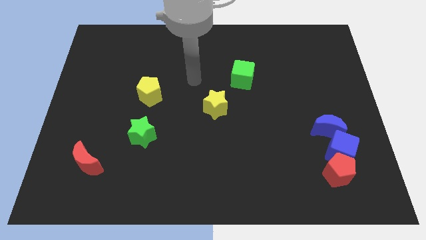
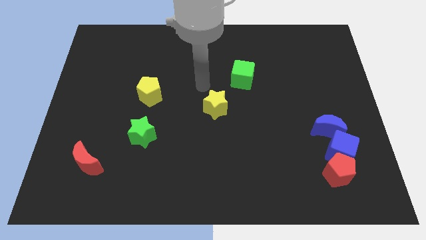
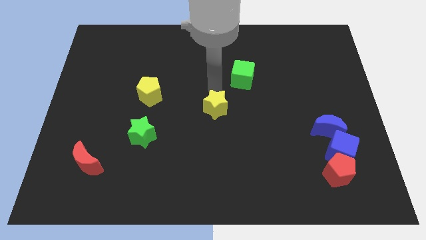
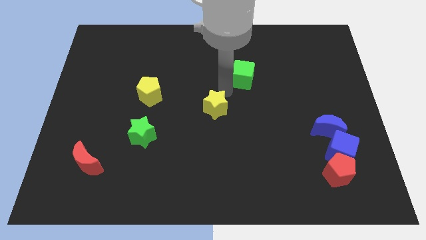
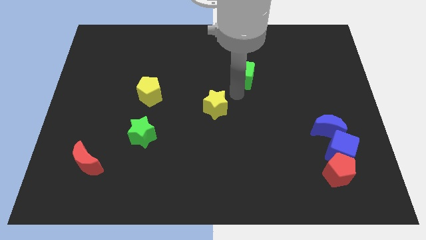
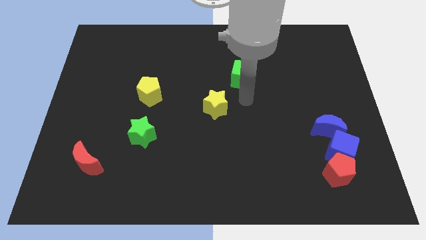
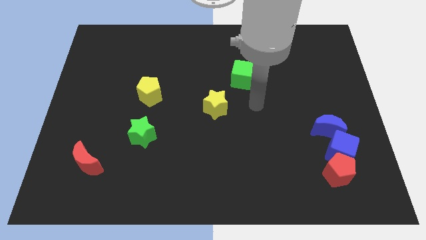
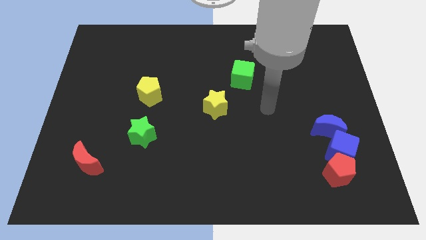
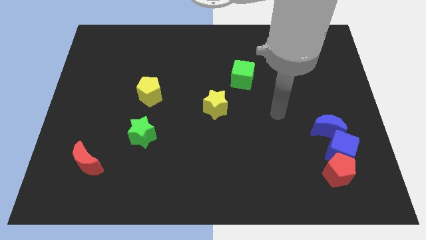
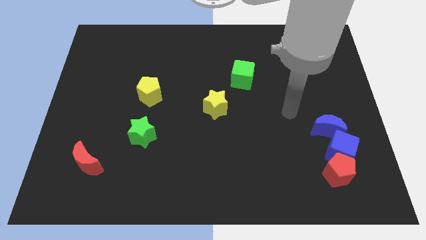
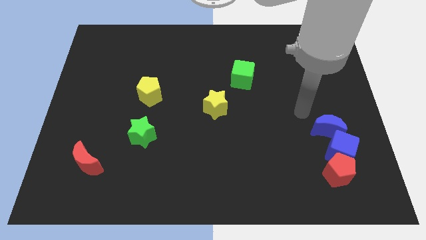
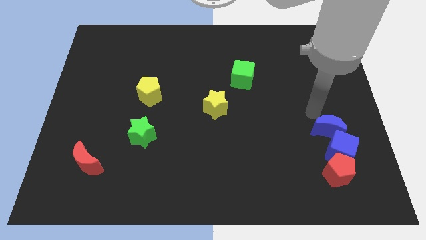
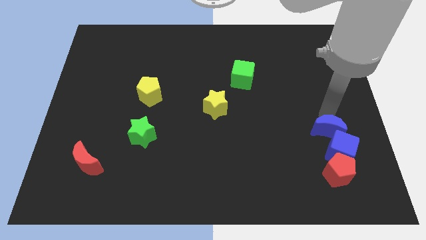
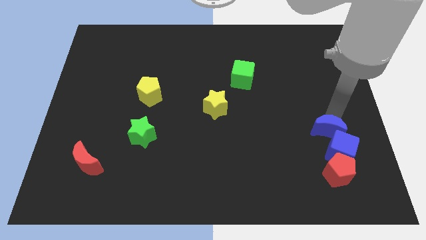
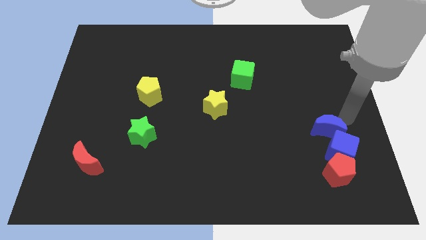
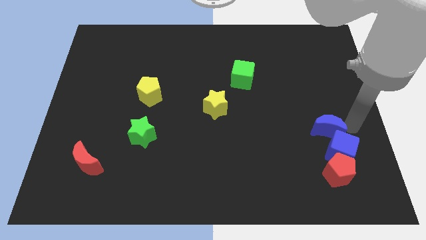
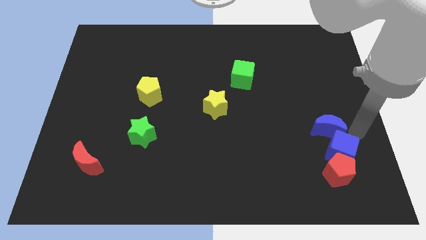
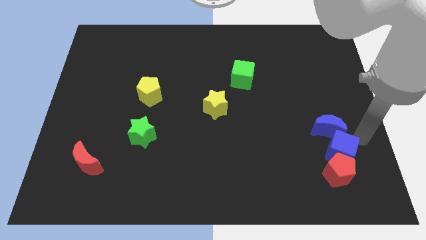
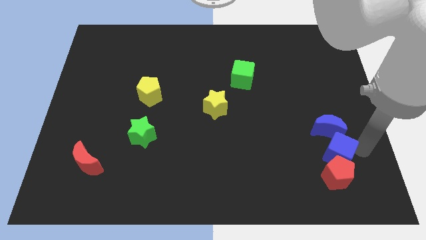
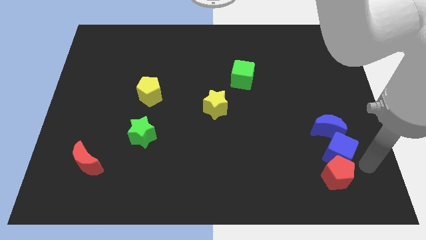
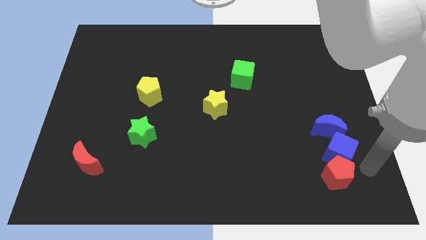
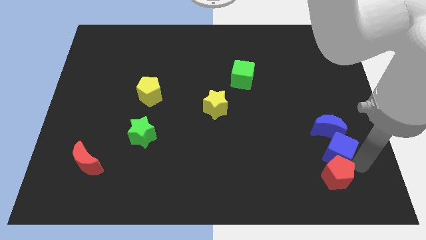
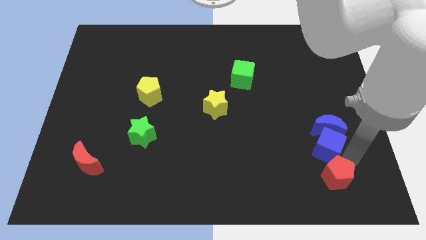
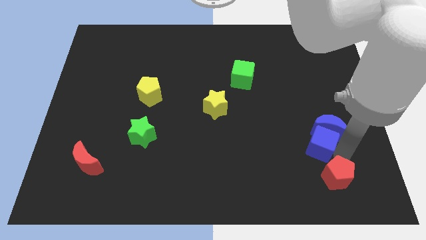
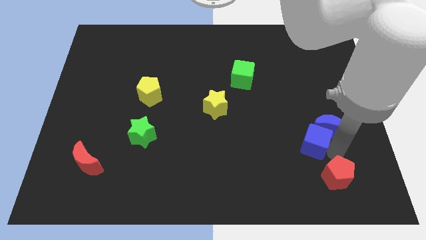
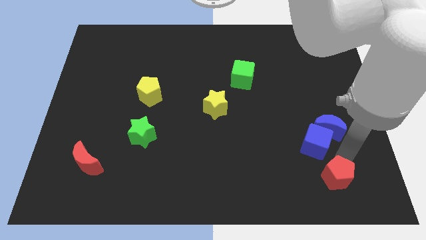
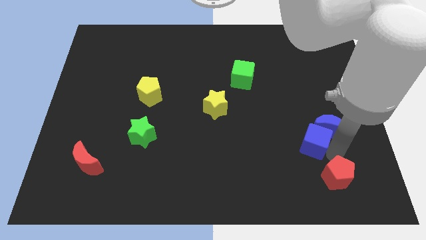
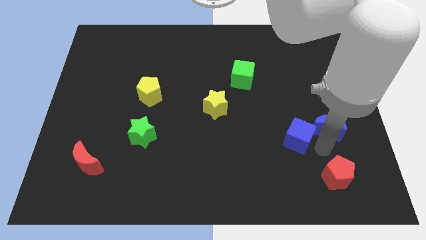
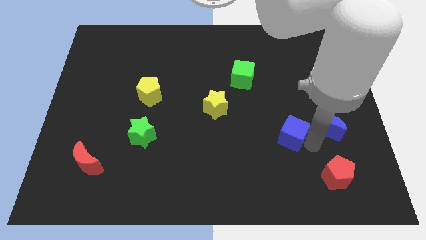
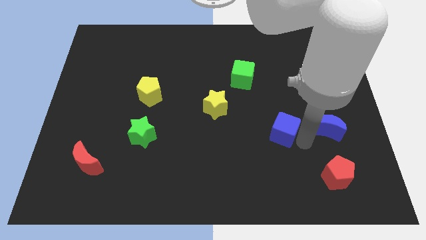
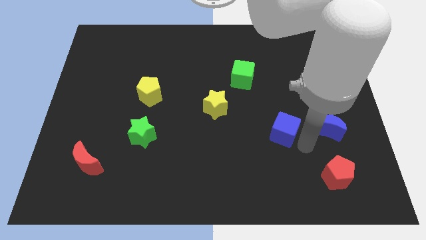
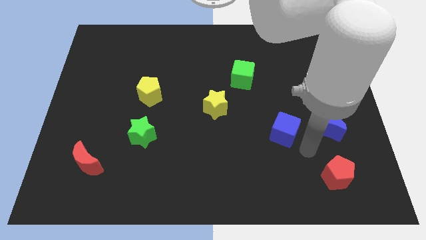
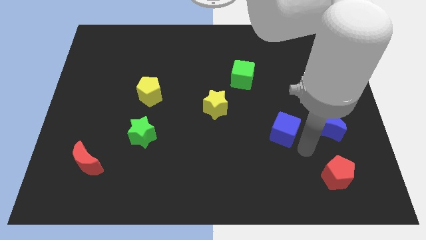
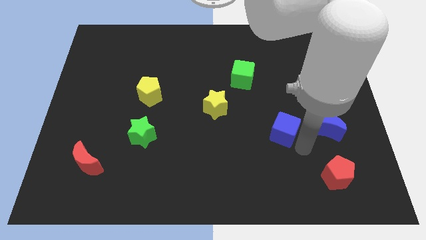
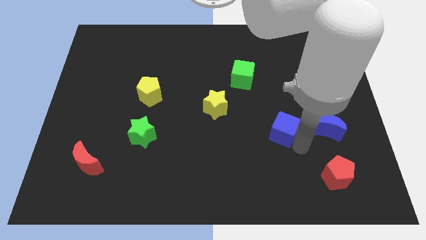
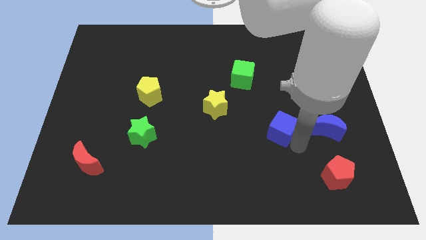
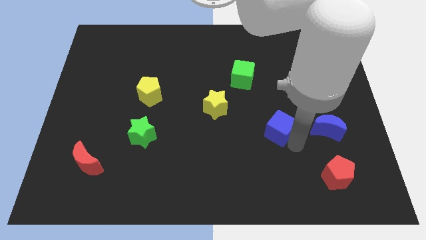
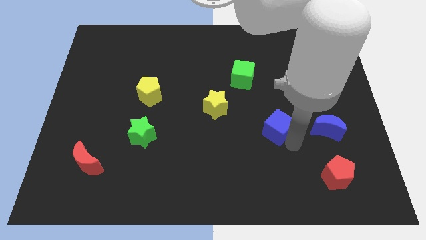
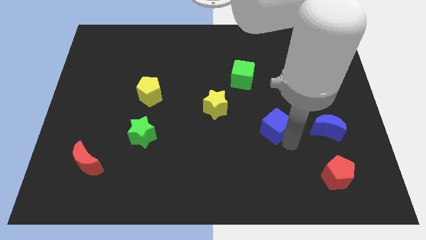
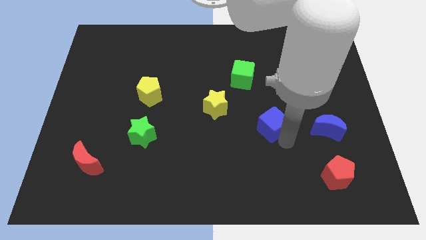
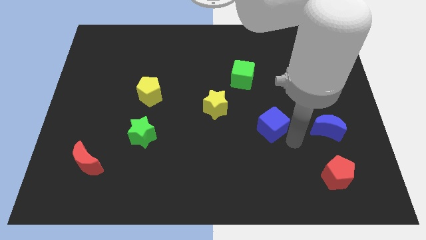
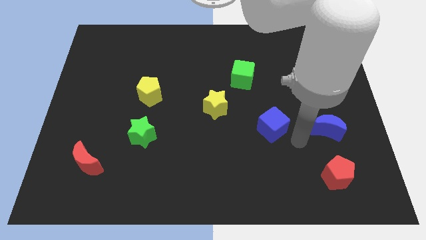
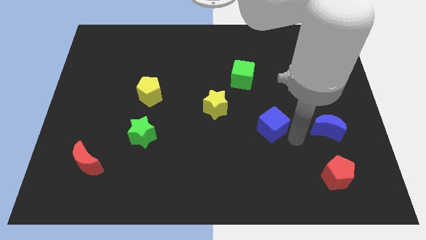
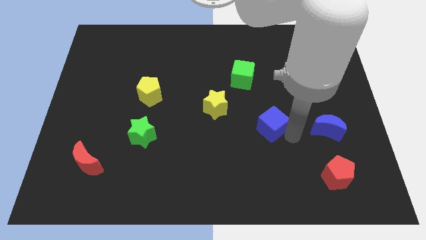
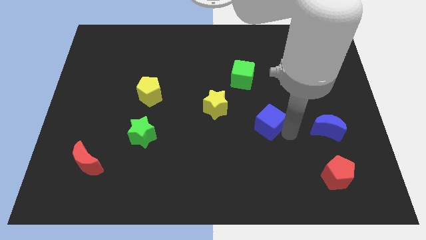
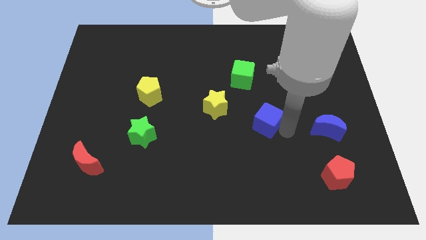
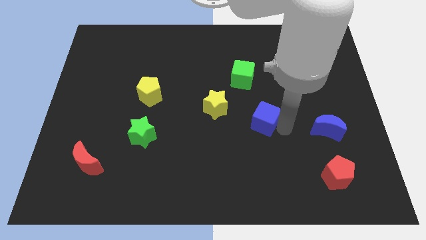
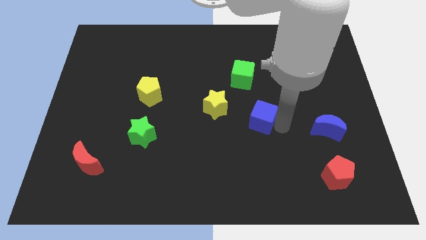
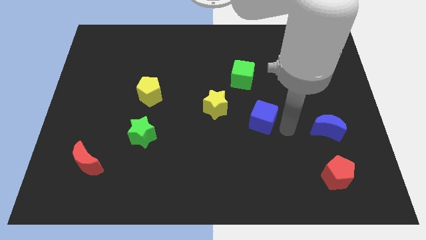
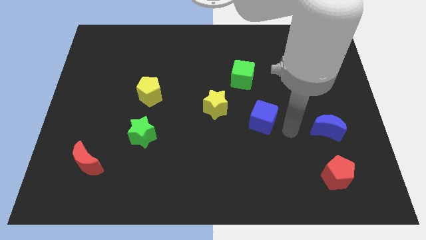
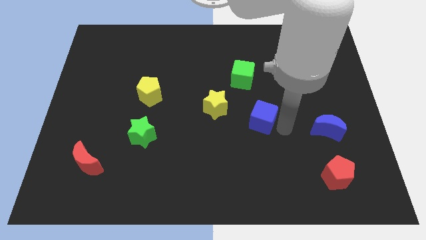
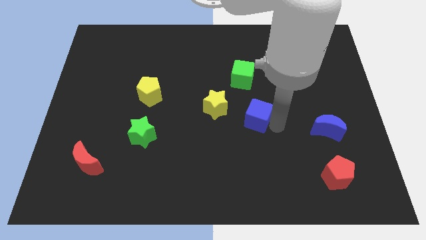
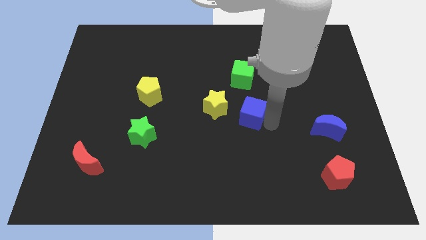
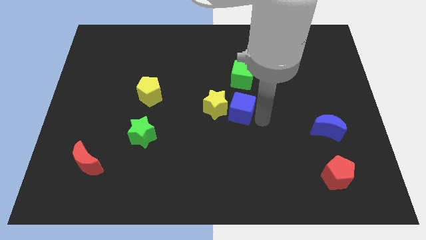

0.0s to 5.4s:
slide the blue cube next to the yellow star

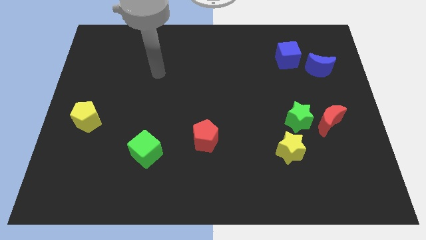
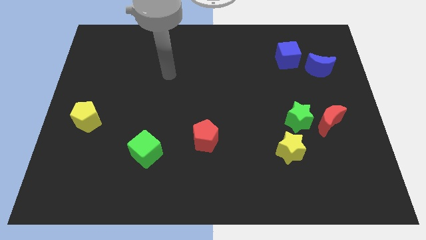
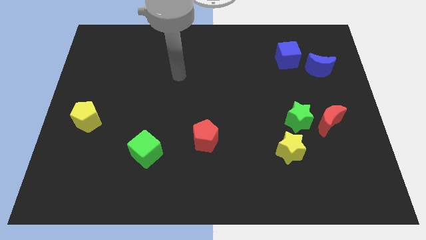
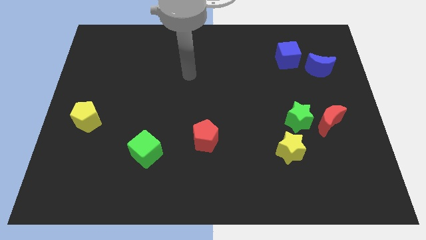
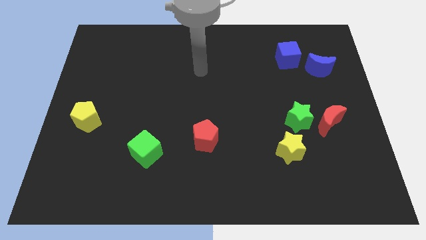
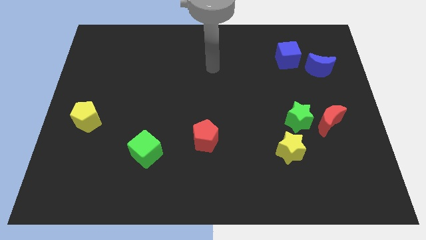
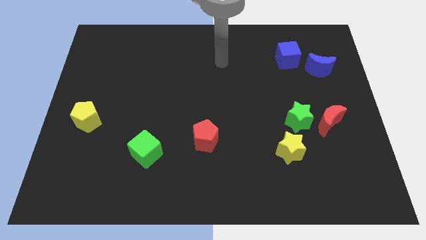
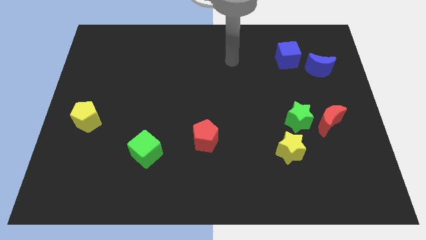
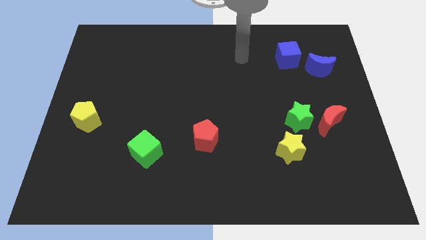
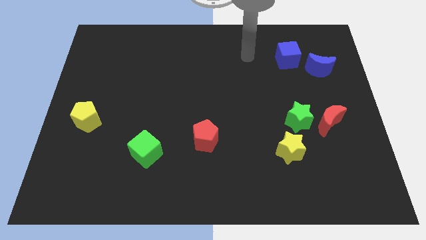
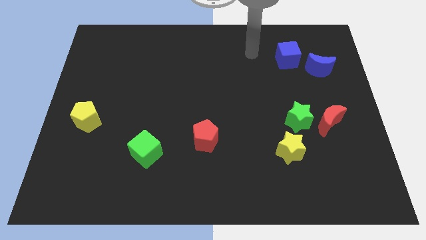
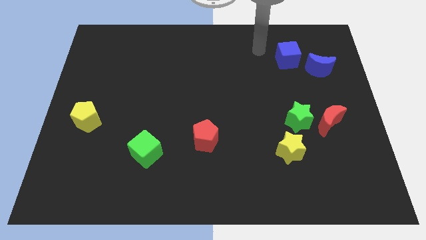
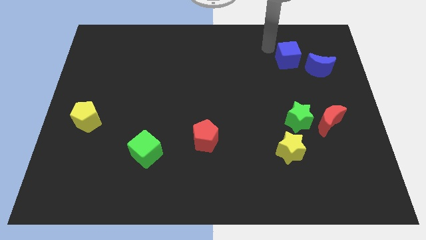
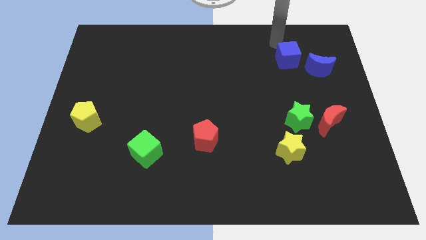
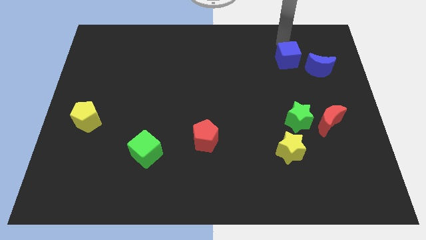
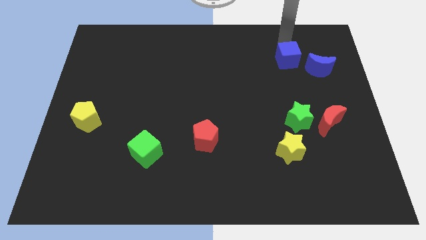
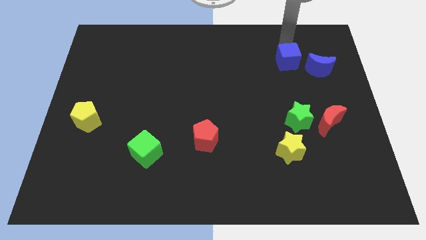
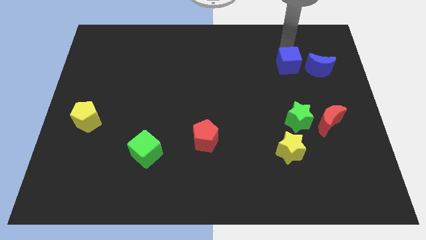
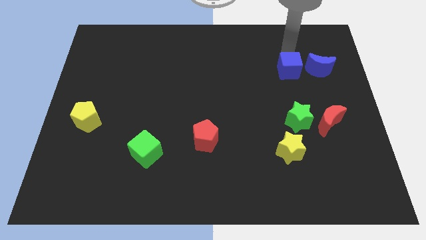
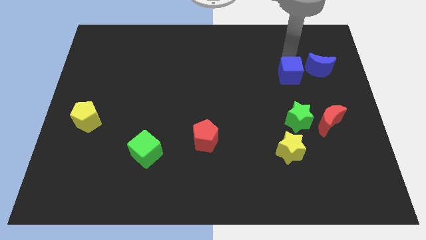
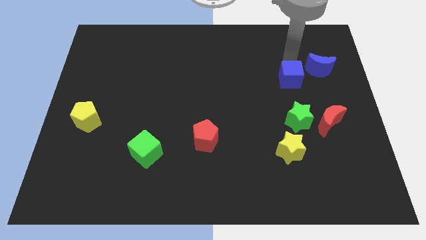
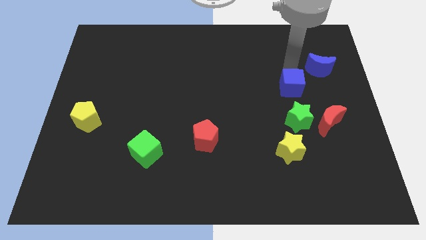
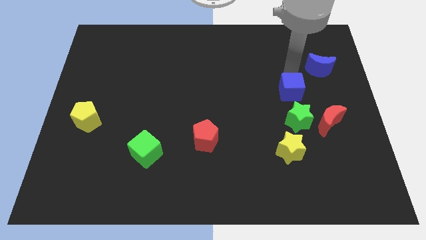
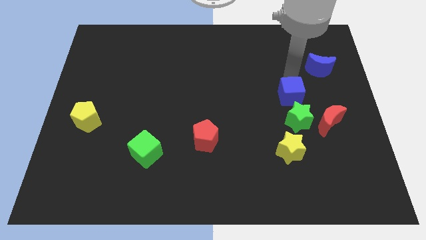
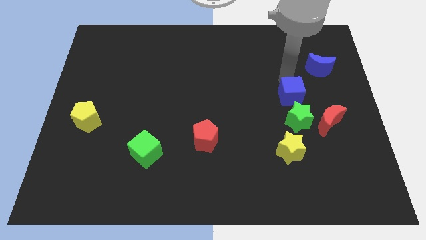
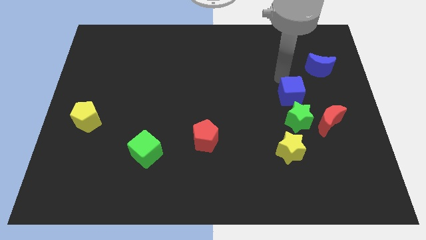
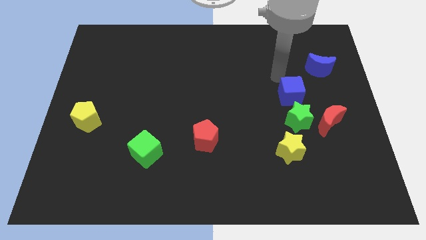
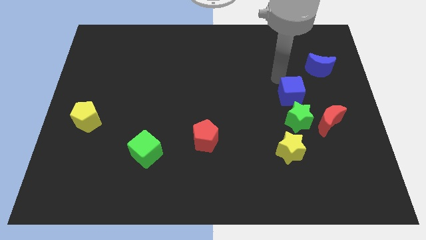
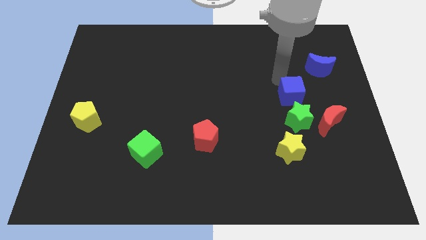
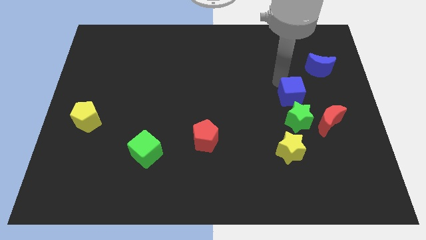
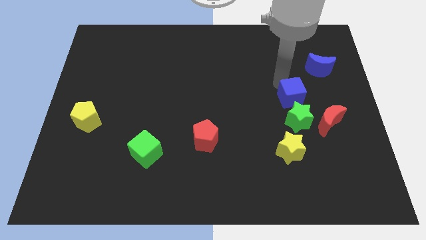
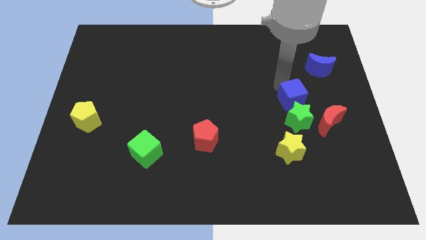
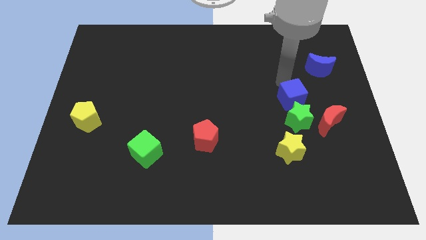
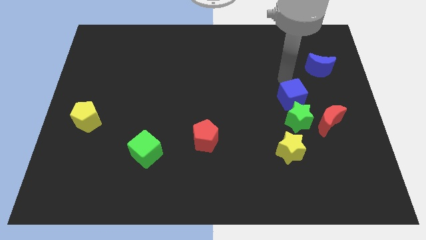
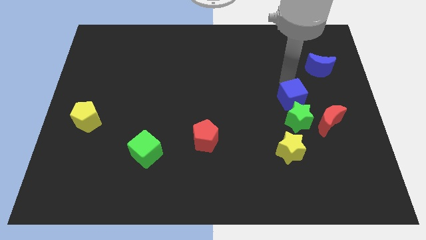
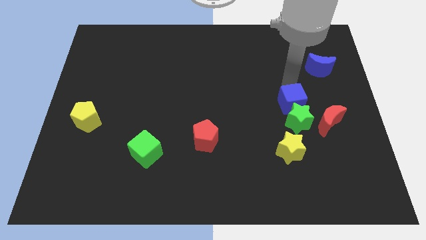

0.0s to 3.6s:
push the blue cube to the green star
